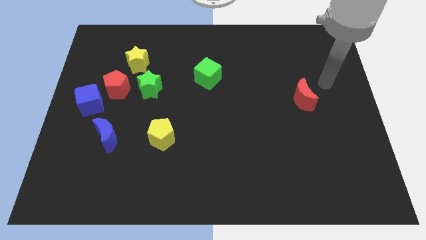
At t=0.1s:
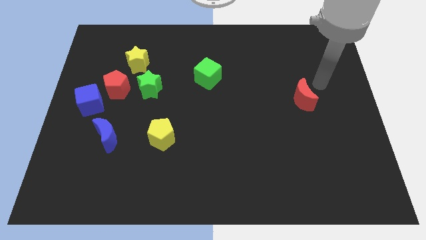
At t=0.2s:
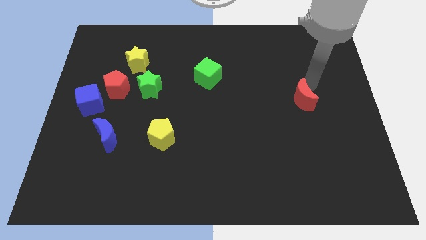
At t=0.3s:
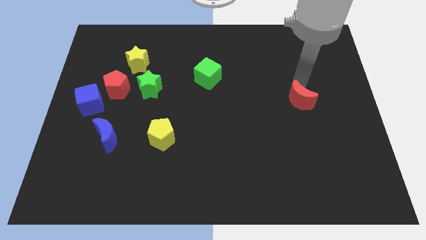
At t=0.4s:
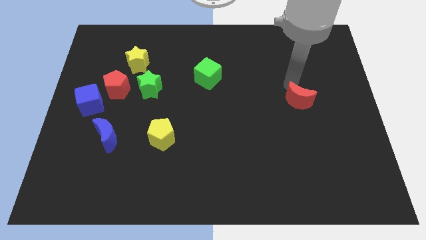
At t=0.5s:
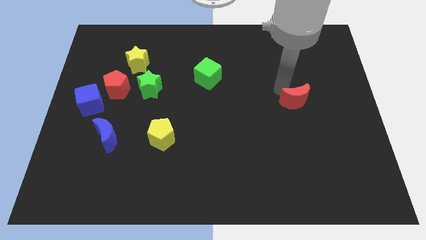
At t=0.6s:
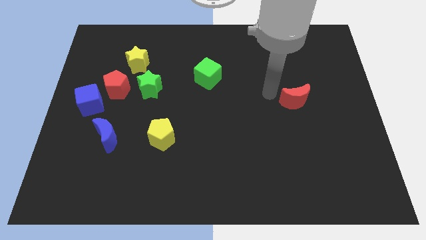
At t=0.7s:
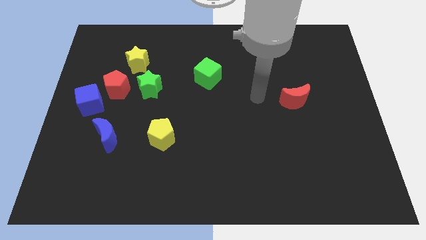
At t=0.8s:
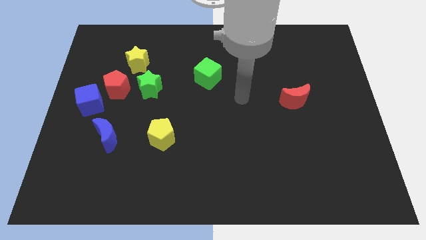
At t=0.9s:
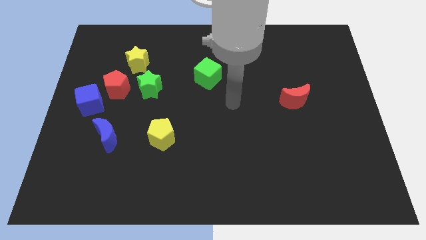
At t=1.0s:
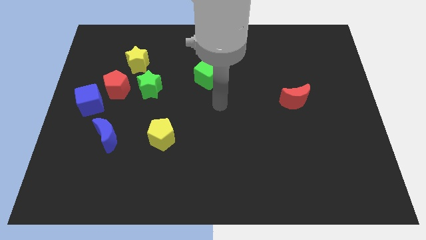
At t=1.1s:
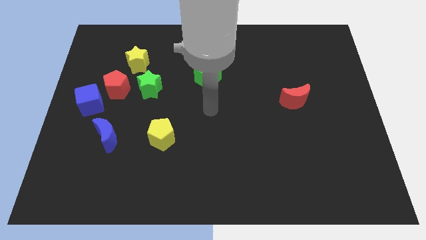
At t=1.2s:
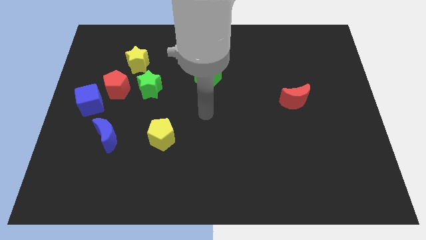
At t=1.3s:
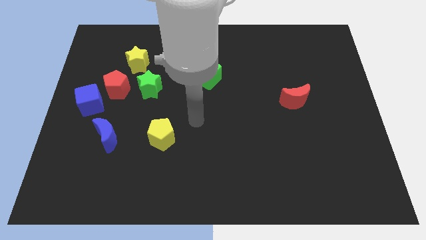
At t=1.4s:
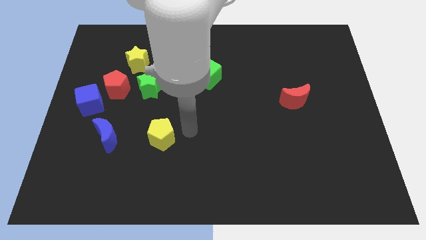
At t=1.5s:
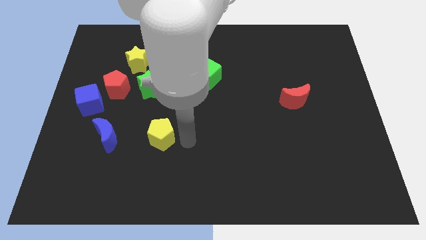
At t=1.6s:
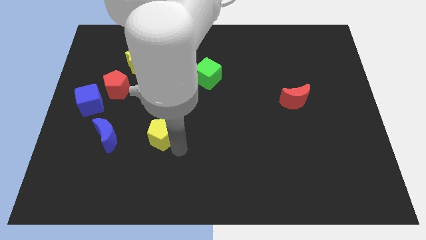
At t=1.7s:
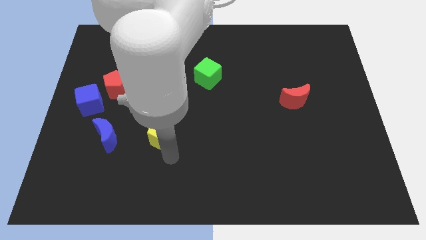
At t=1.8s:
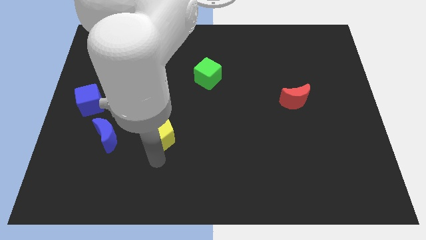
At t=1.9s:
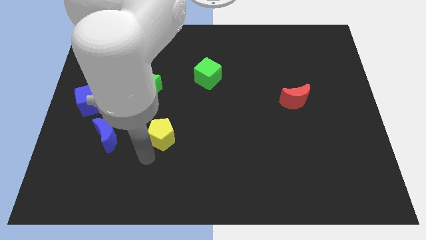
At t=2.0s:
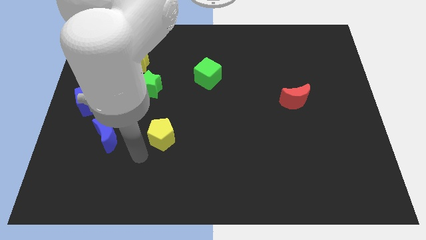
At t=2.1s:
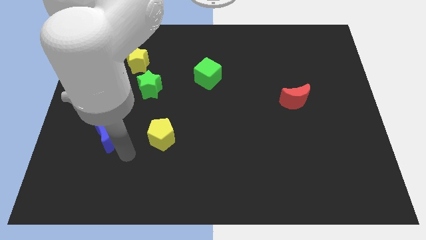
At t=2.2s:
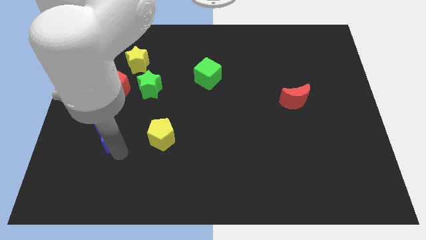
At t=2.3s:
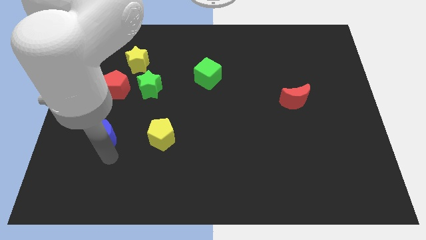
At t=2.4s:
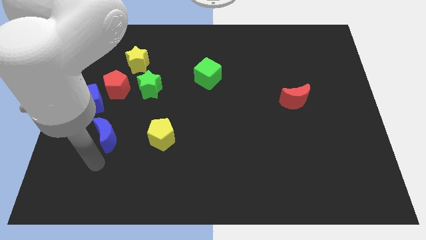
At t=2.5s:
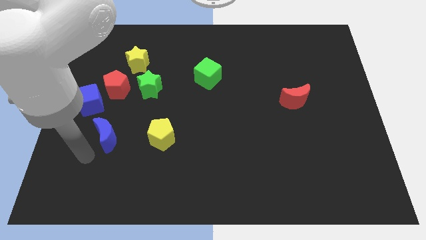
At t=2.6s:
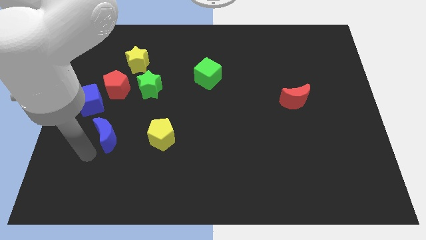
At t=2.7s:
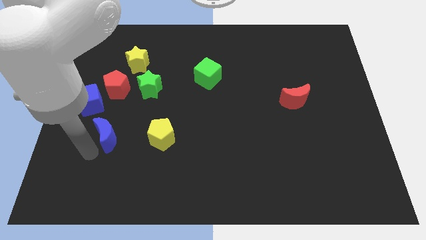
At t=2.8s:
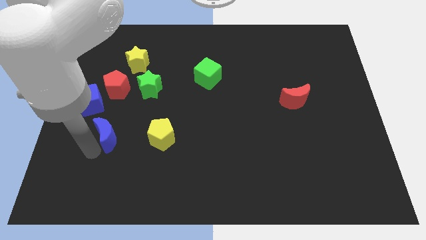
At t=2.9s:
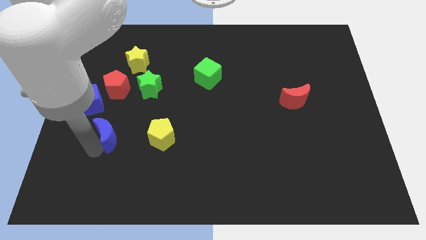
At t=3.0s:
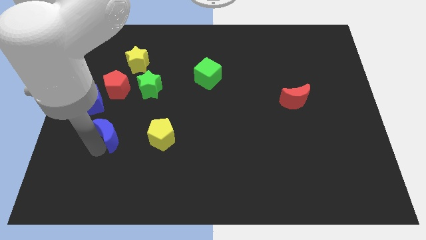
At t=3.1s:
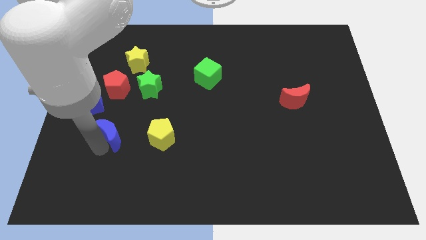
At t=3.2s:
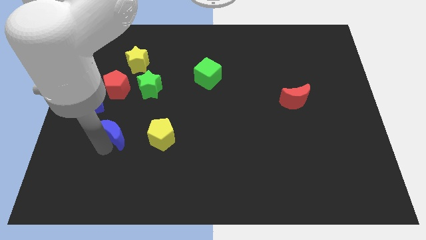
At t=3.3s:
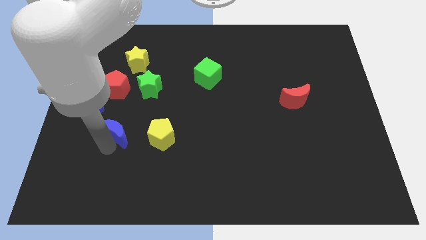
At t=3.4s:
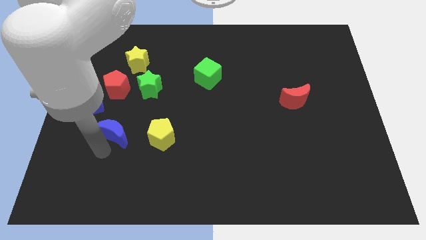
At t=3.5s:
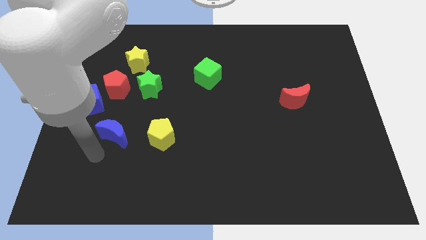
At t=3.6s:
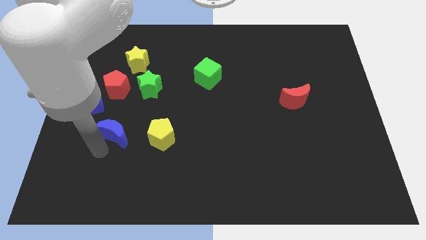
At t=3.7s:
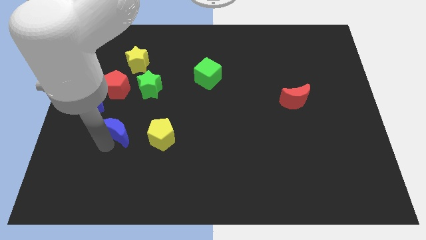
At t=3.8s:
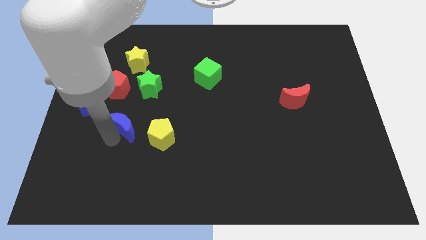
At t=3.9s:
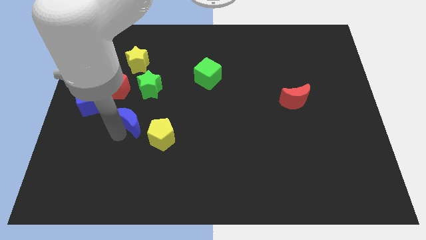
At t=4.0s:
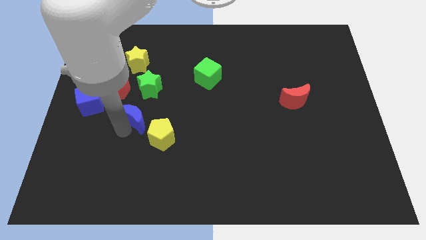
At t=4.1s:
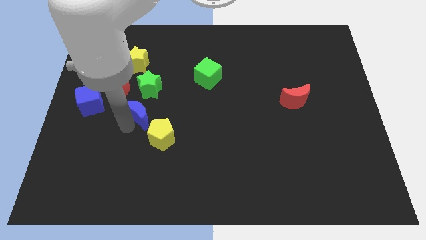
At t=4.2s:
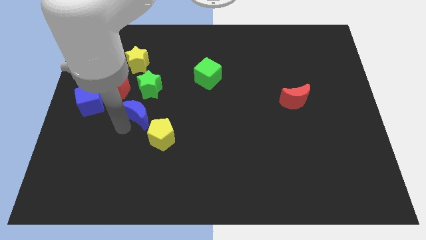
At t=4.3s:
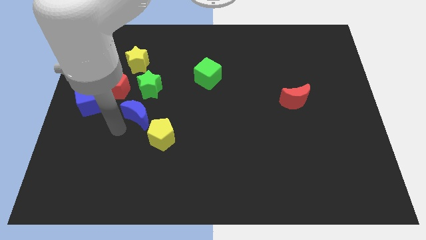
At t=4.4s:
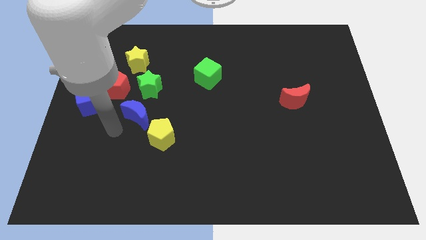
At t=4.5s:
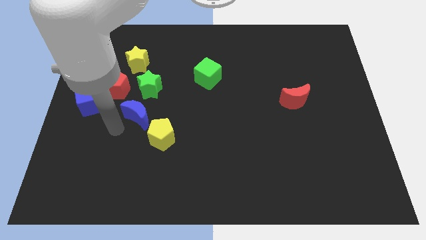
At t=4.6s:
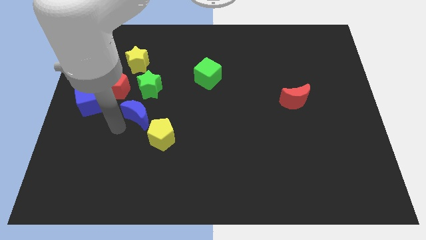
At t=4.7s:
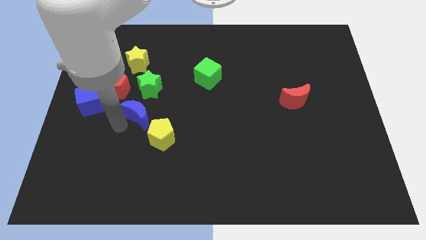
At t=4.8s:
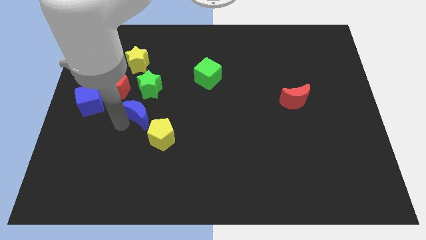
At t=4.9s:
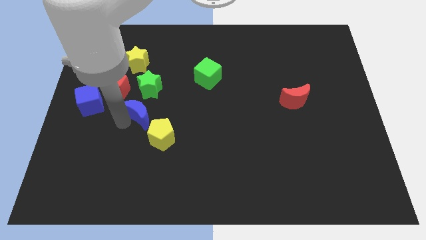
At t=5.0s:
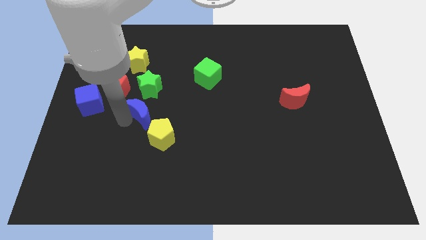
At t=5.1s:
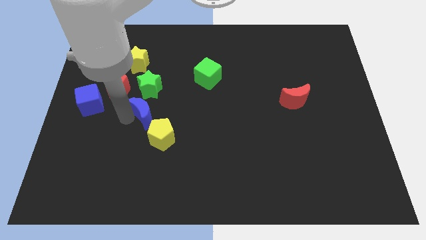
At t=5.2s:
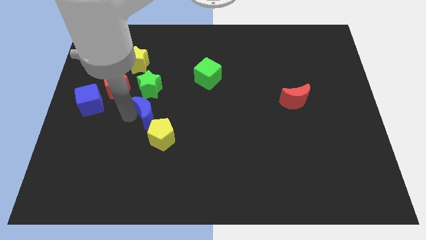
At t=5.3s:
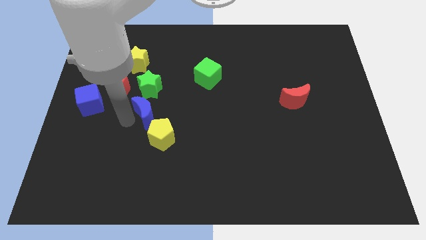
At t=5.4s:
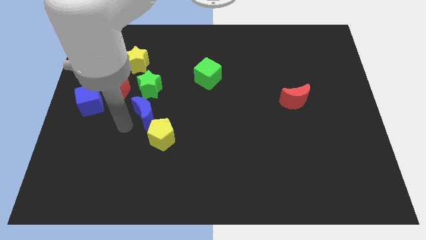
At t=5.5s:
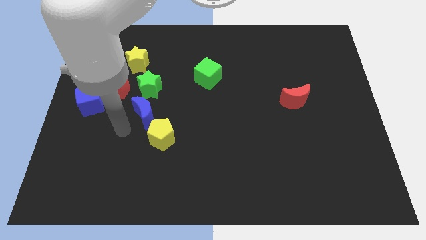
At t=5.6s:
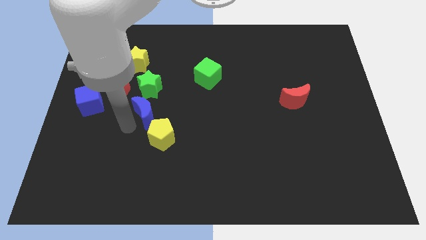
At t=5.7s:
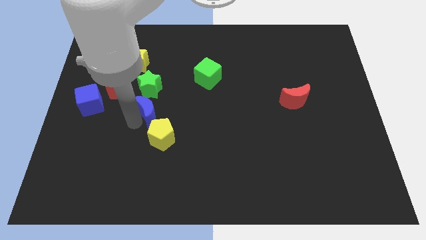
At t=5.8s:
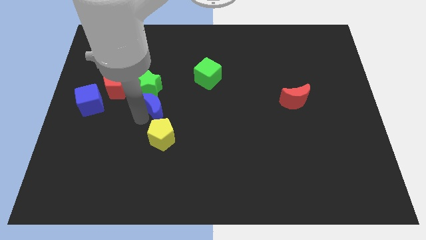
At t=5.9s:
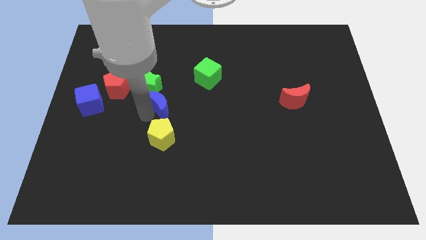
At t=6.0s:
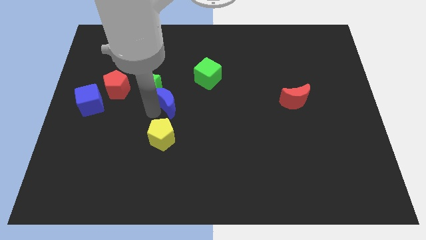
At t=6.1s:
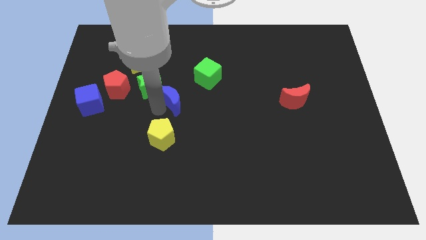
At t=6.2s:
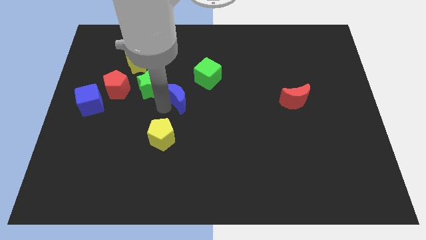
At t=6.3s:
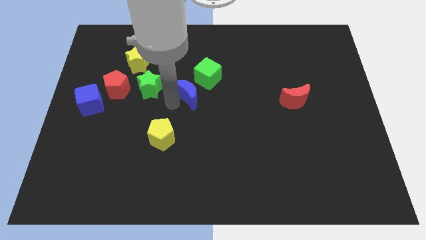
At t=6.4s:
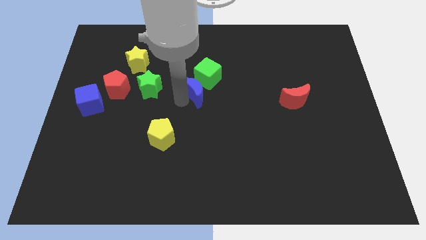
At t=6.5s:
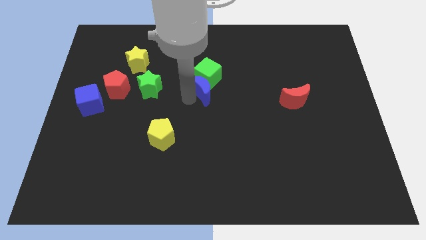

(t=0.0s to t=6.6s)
push the blue moon next to the green cube
